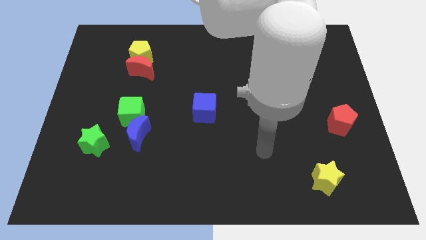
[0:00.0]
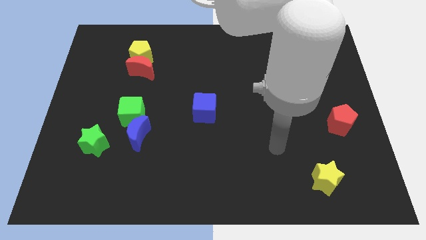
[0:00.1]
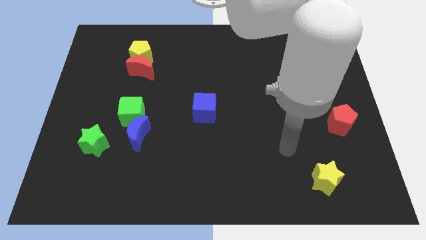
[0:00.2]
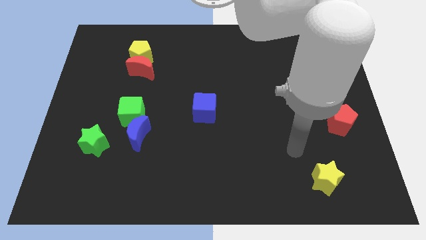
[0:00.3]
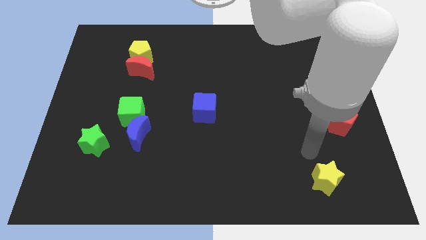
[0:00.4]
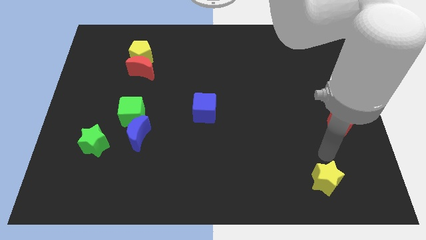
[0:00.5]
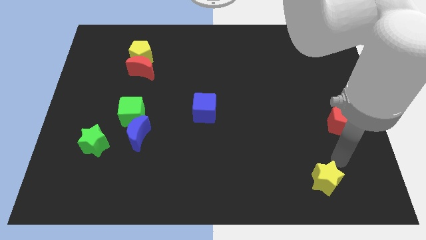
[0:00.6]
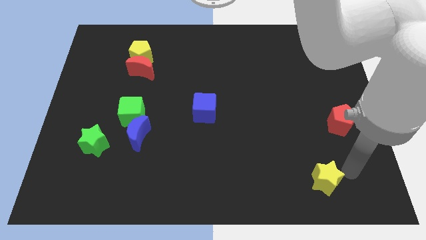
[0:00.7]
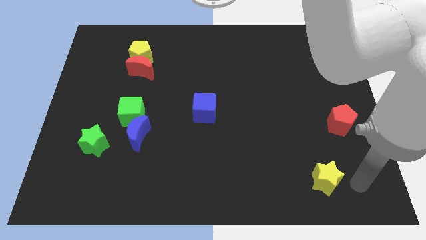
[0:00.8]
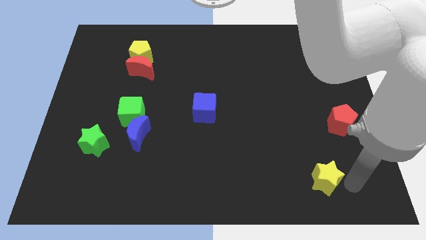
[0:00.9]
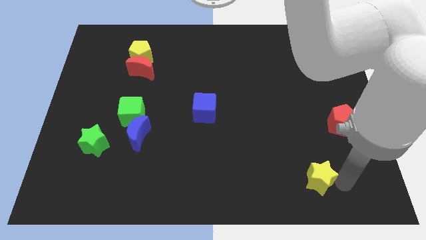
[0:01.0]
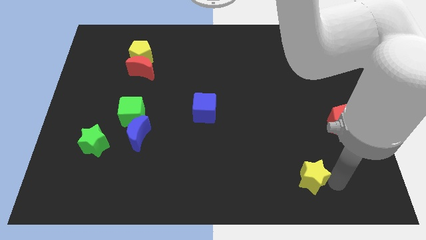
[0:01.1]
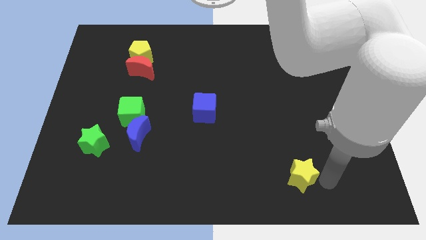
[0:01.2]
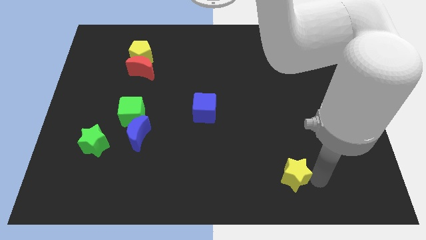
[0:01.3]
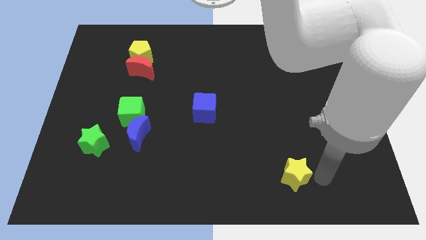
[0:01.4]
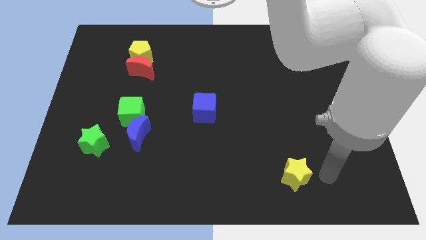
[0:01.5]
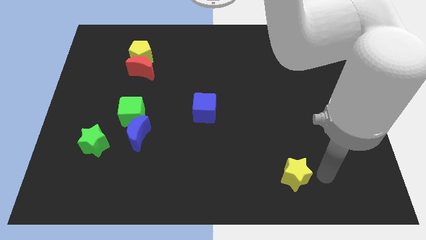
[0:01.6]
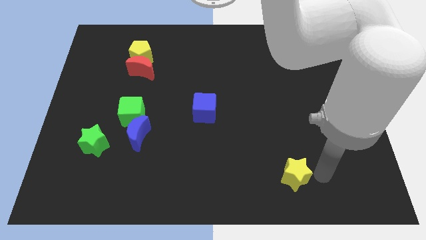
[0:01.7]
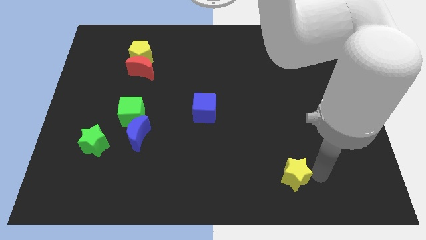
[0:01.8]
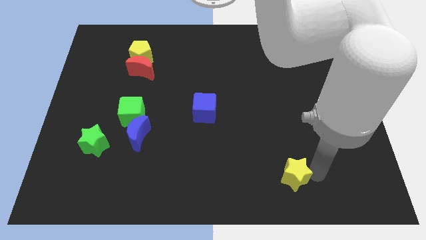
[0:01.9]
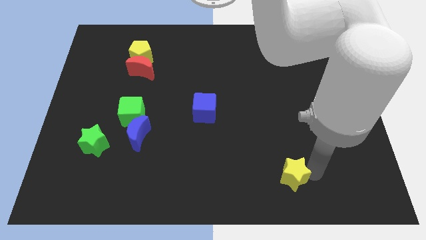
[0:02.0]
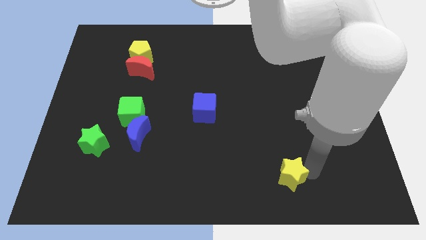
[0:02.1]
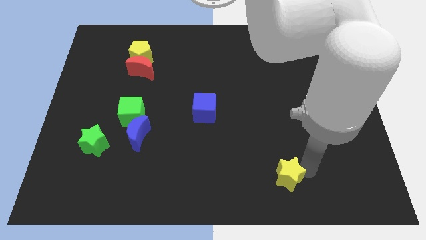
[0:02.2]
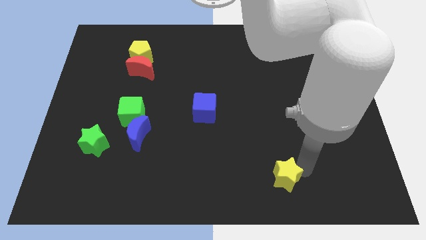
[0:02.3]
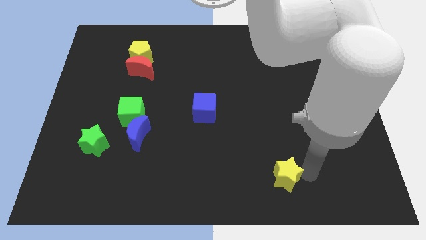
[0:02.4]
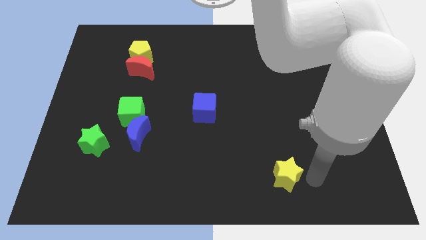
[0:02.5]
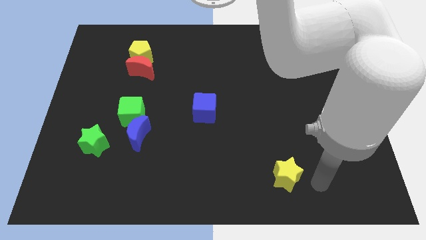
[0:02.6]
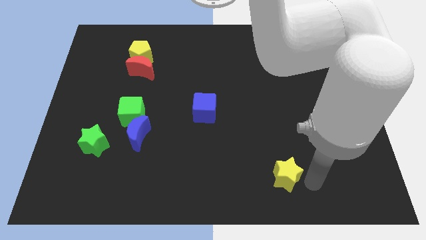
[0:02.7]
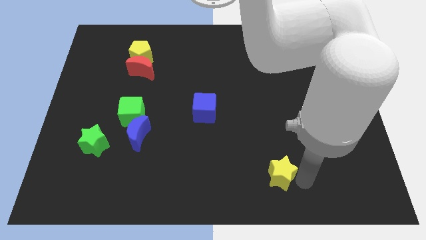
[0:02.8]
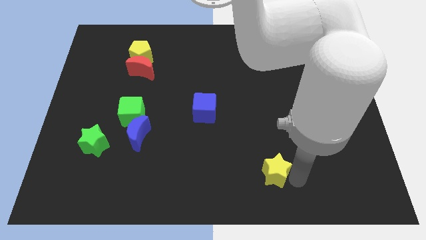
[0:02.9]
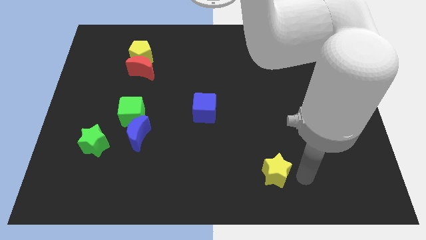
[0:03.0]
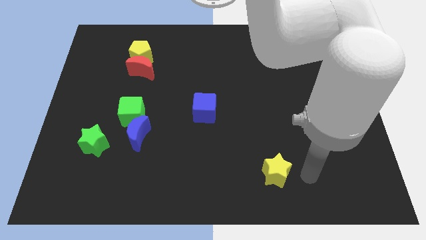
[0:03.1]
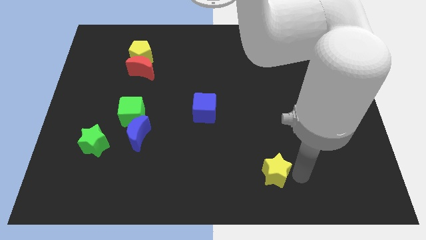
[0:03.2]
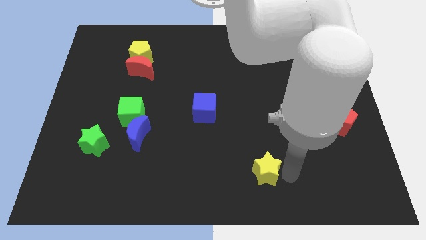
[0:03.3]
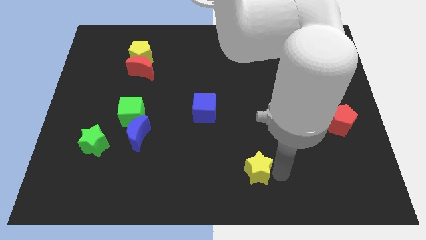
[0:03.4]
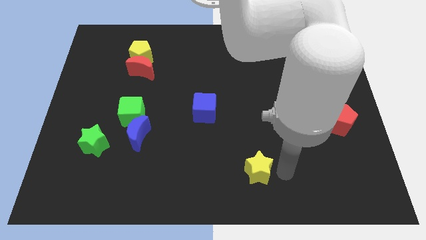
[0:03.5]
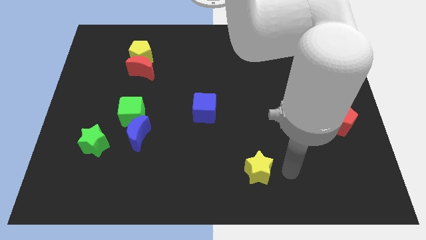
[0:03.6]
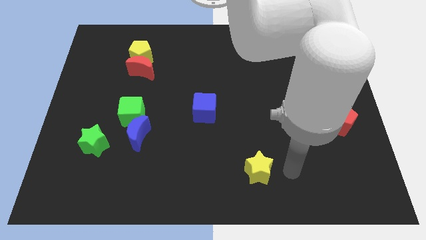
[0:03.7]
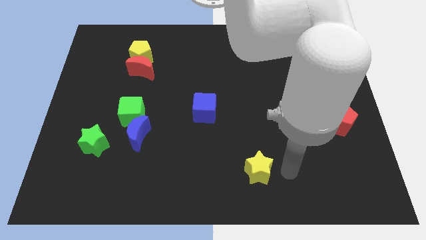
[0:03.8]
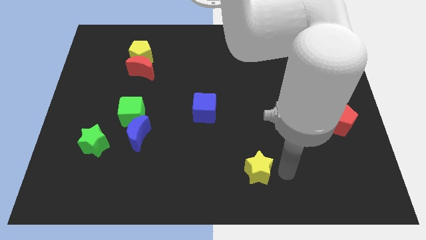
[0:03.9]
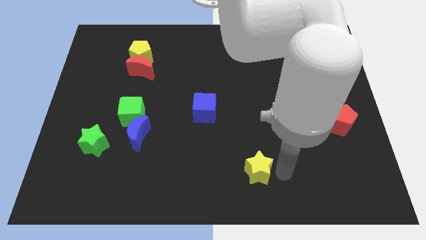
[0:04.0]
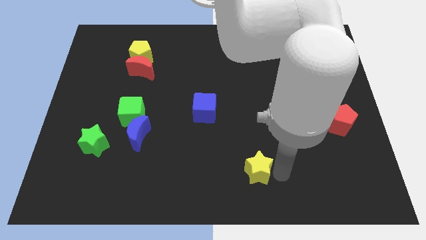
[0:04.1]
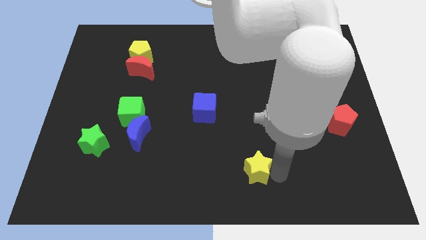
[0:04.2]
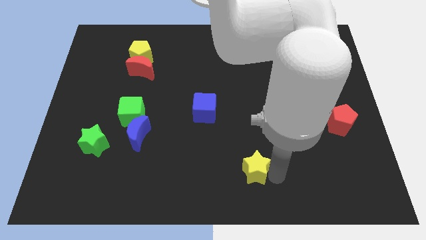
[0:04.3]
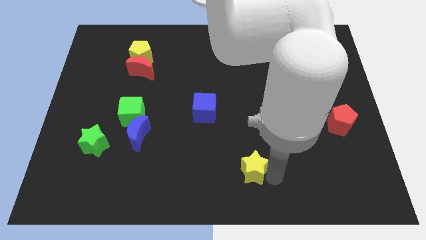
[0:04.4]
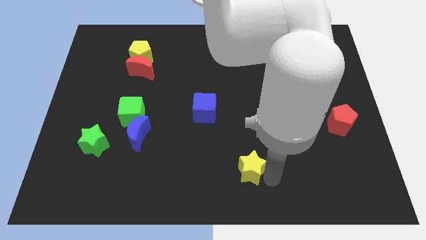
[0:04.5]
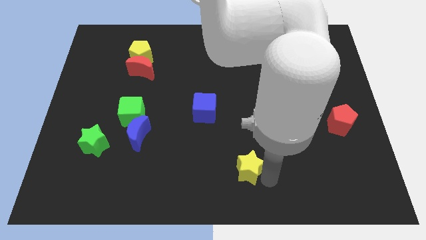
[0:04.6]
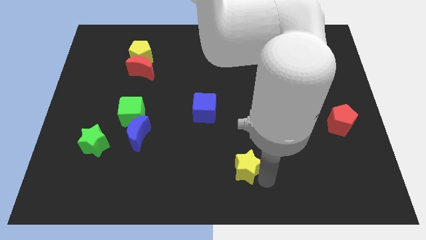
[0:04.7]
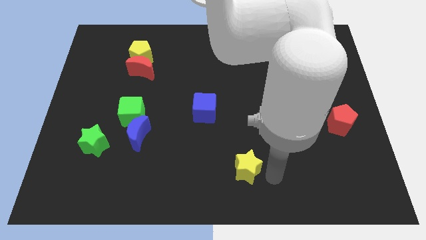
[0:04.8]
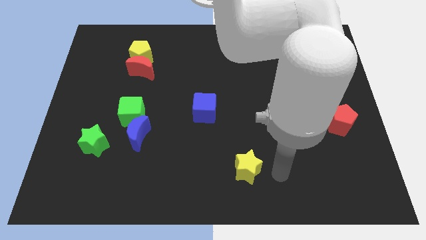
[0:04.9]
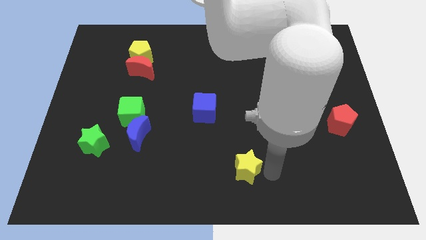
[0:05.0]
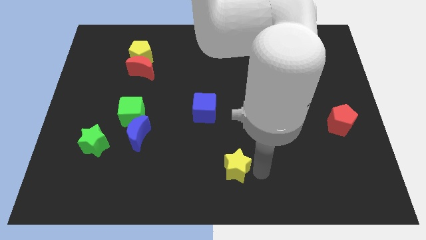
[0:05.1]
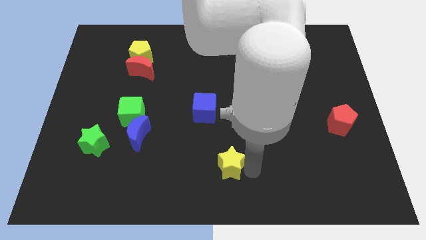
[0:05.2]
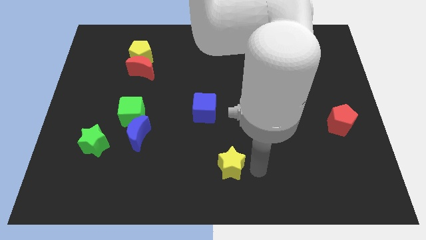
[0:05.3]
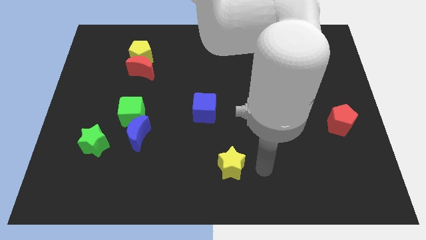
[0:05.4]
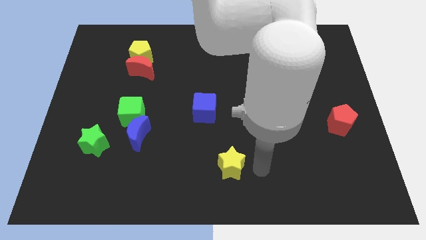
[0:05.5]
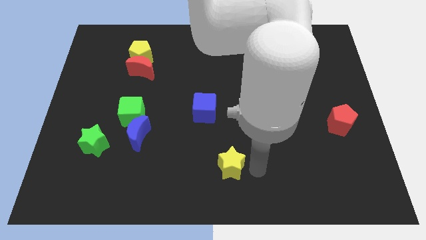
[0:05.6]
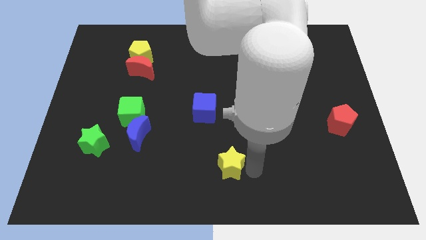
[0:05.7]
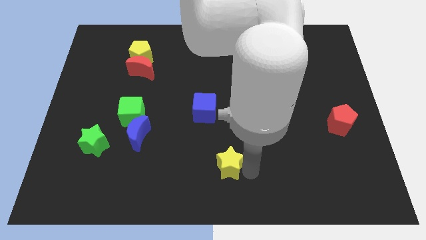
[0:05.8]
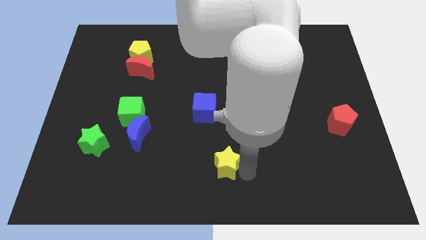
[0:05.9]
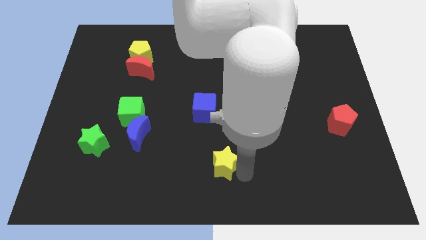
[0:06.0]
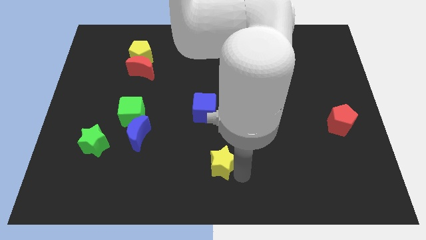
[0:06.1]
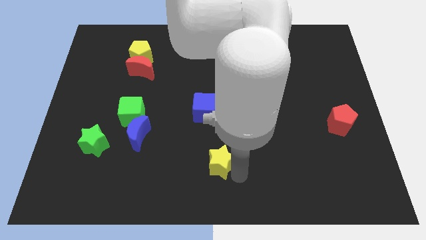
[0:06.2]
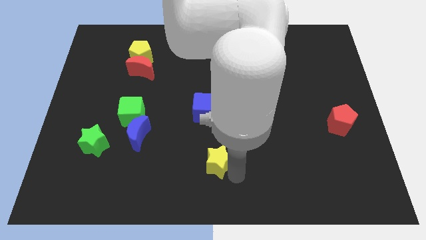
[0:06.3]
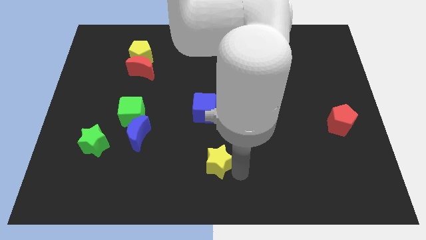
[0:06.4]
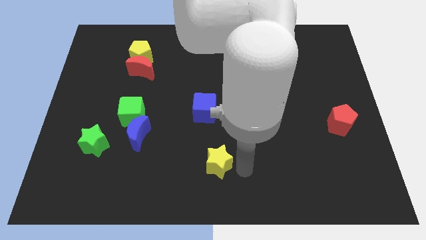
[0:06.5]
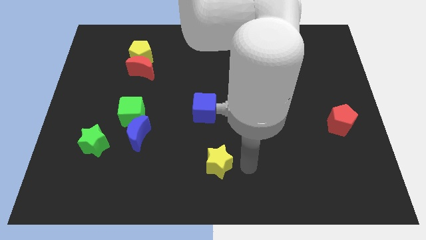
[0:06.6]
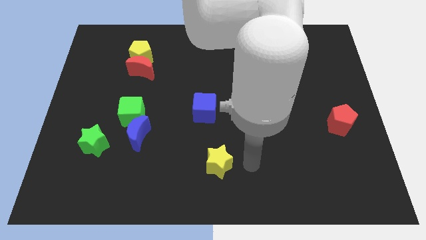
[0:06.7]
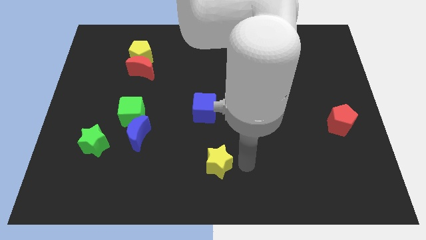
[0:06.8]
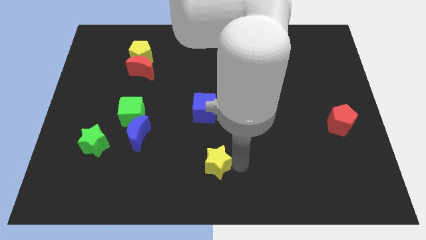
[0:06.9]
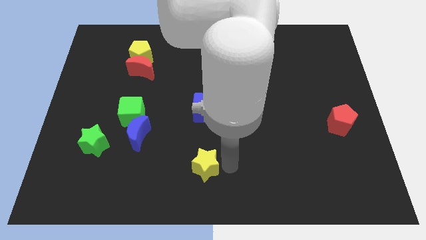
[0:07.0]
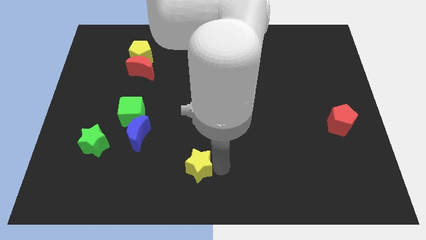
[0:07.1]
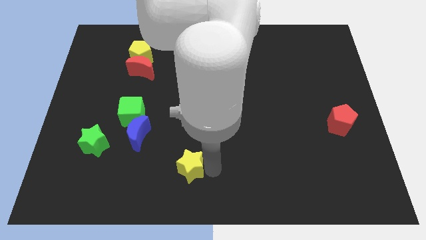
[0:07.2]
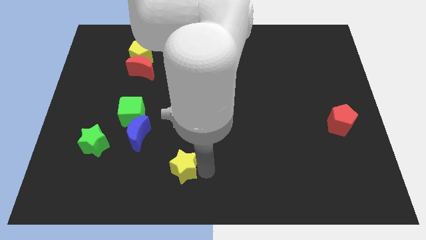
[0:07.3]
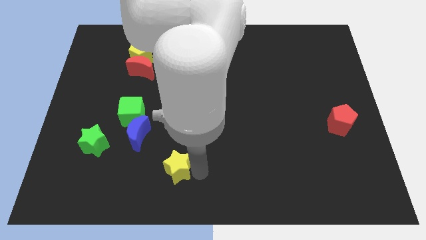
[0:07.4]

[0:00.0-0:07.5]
put the yellow star diagonally down and to the right of the blue moon

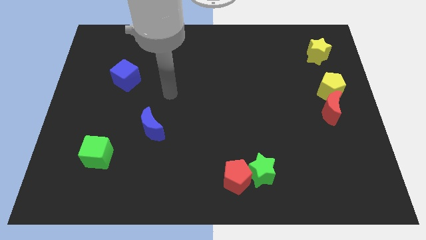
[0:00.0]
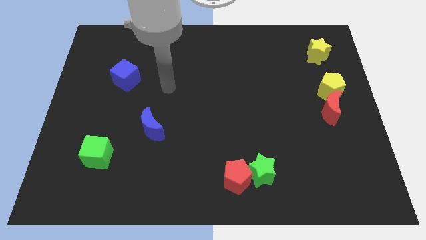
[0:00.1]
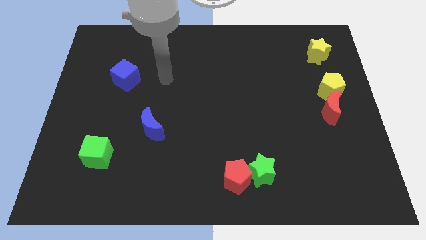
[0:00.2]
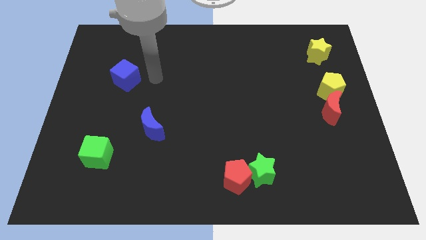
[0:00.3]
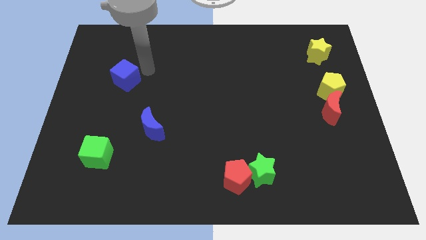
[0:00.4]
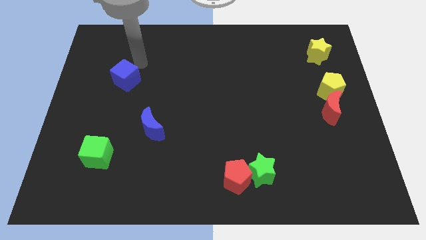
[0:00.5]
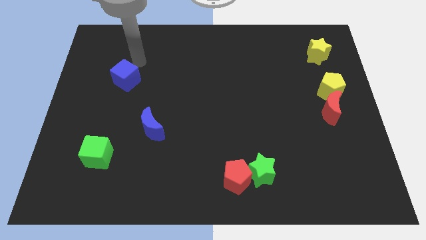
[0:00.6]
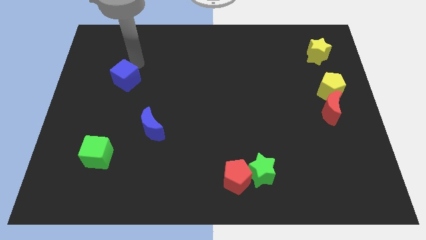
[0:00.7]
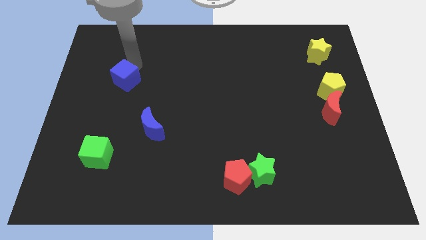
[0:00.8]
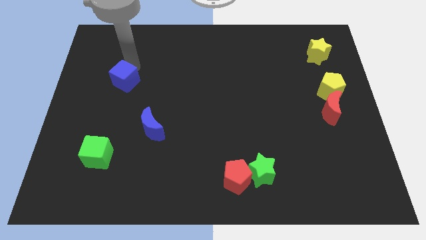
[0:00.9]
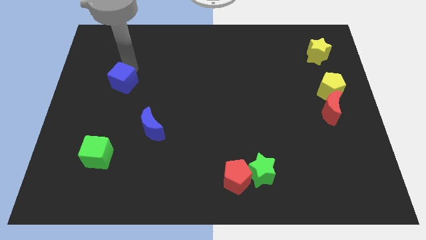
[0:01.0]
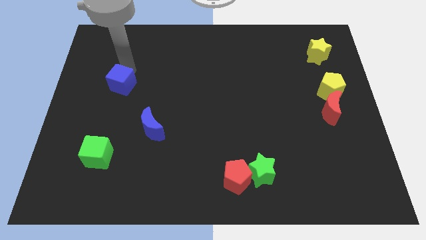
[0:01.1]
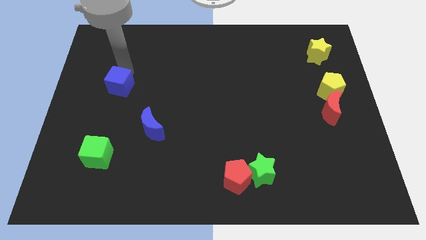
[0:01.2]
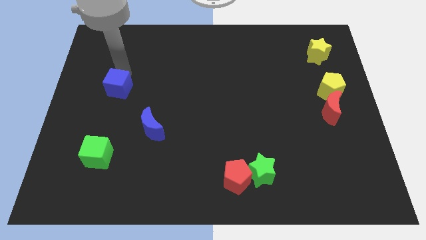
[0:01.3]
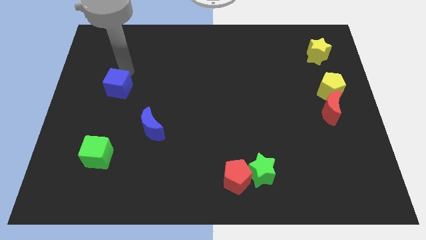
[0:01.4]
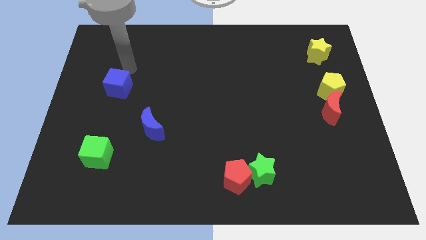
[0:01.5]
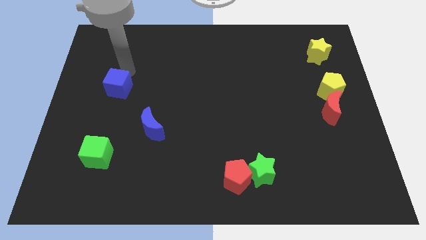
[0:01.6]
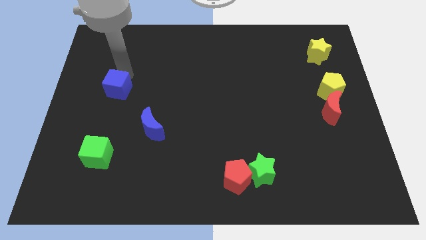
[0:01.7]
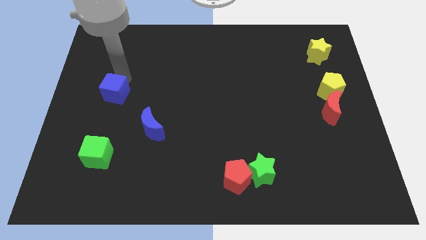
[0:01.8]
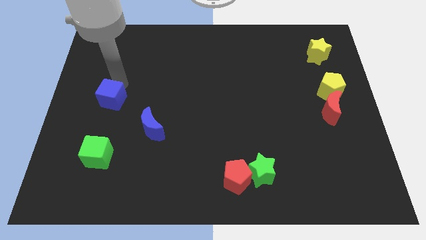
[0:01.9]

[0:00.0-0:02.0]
slide the blue cube to the top of the green cube
